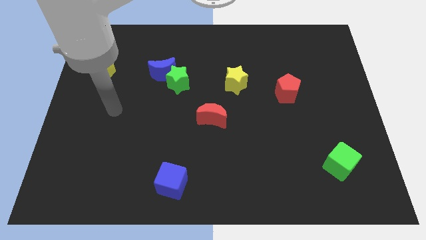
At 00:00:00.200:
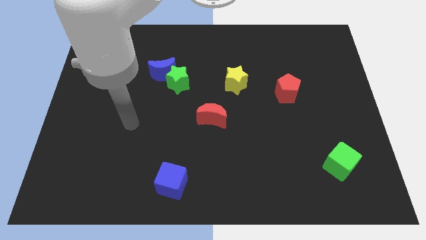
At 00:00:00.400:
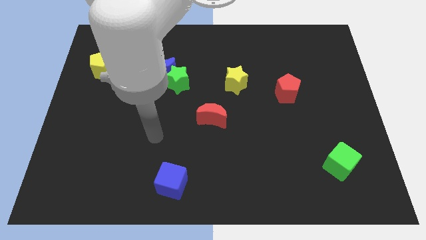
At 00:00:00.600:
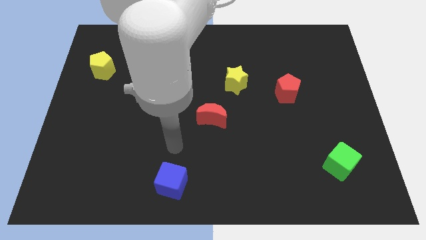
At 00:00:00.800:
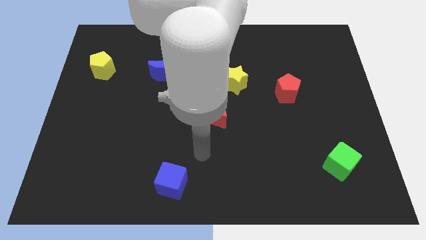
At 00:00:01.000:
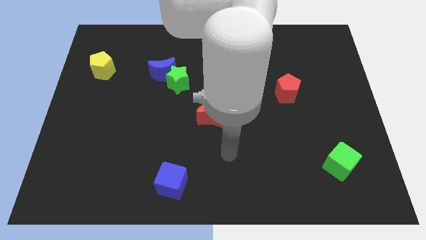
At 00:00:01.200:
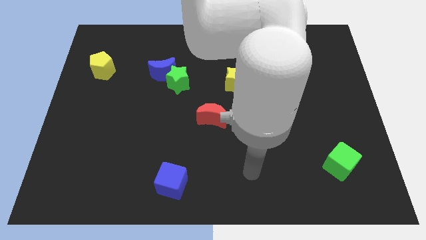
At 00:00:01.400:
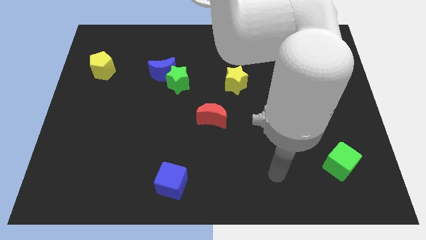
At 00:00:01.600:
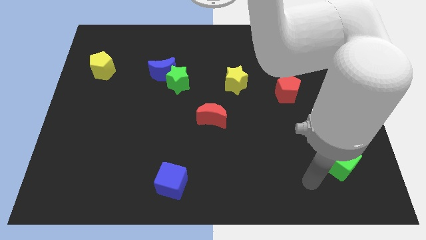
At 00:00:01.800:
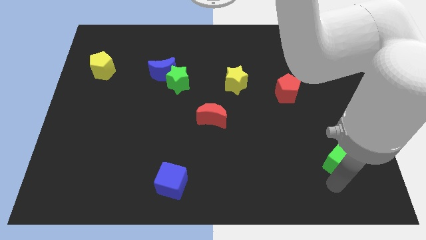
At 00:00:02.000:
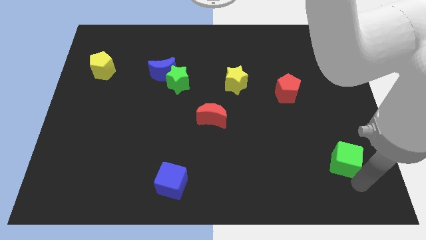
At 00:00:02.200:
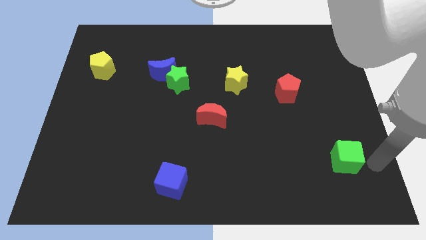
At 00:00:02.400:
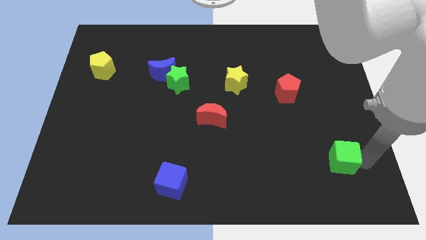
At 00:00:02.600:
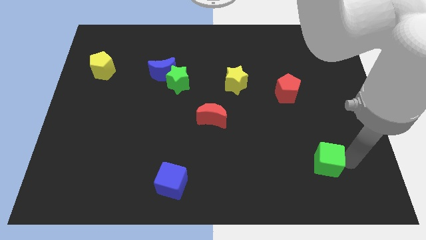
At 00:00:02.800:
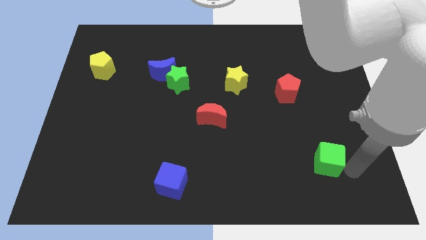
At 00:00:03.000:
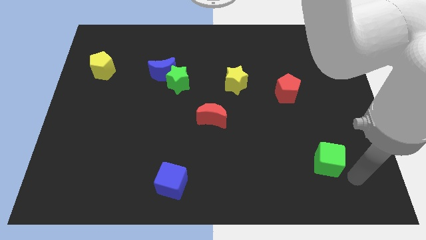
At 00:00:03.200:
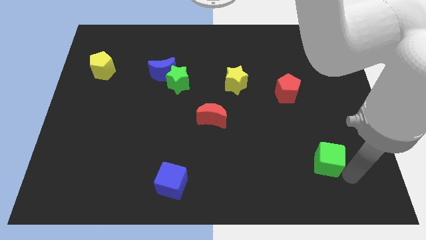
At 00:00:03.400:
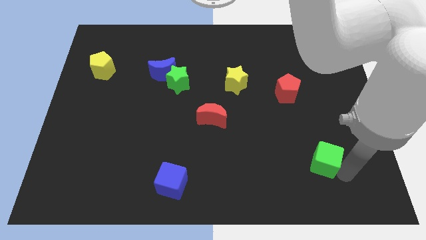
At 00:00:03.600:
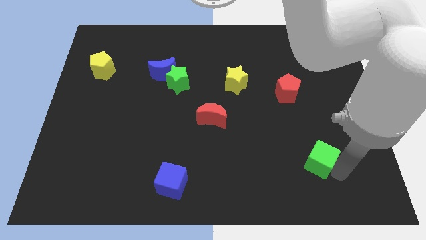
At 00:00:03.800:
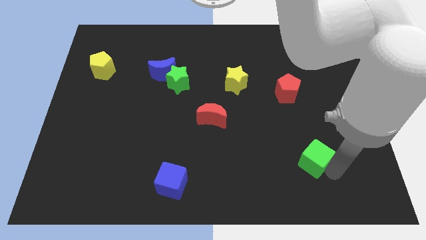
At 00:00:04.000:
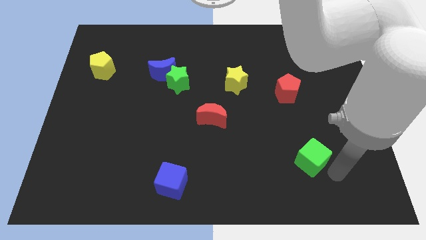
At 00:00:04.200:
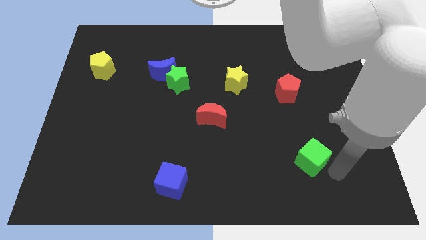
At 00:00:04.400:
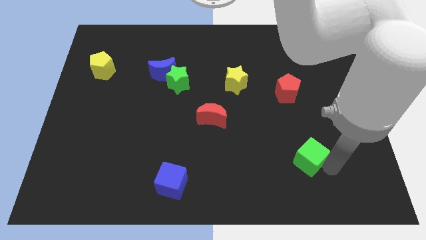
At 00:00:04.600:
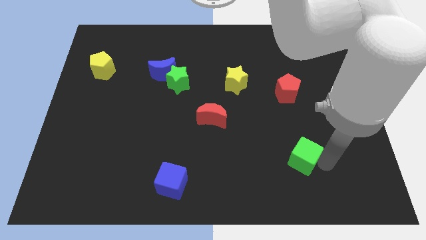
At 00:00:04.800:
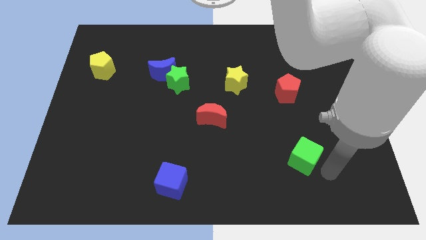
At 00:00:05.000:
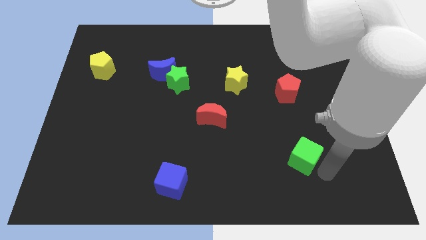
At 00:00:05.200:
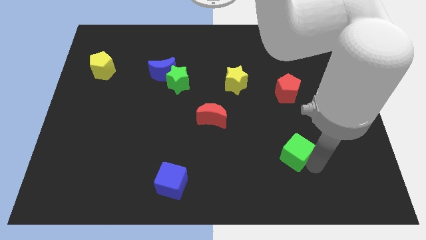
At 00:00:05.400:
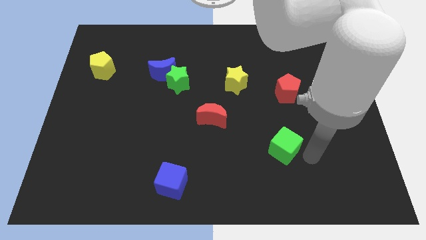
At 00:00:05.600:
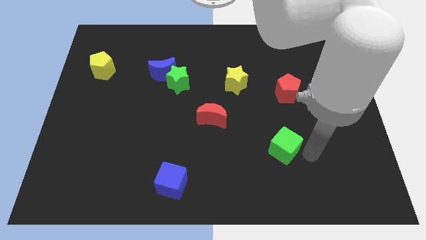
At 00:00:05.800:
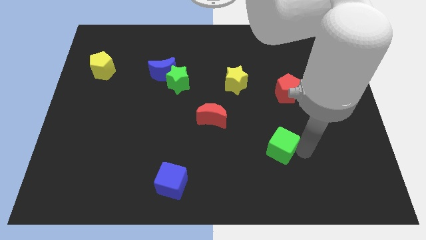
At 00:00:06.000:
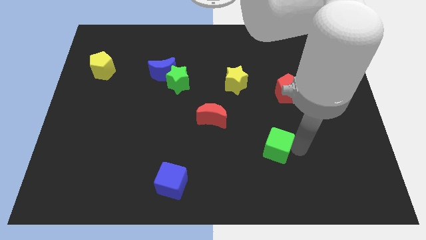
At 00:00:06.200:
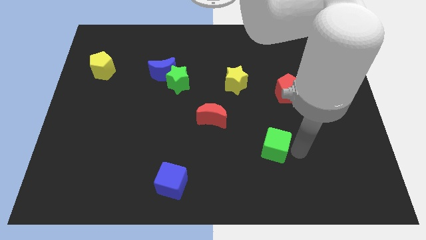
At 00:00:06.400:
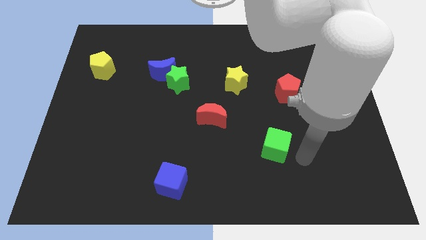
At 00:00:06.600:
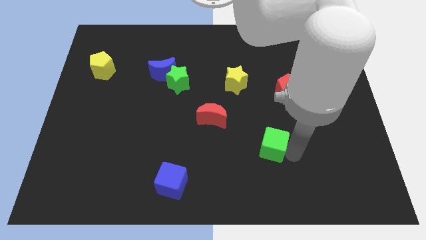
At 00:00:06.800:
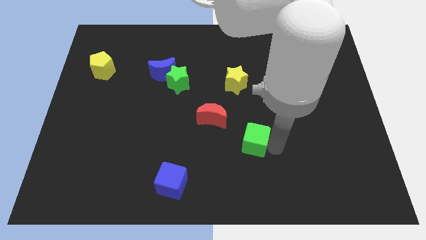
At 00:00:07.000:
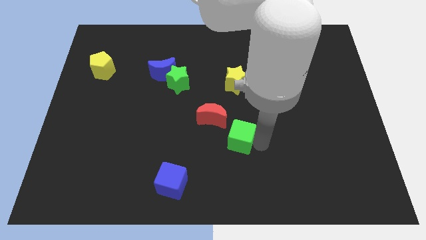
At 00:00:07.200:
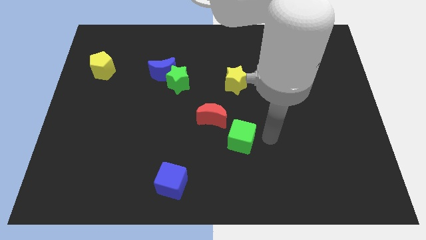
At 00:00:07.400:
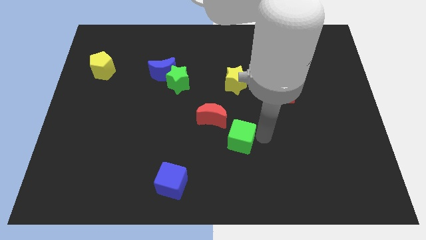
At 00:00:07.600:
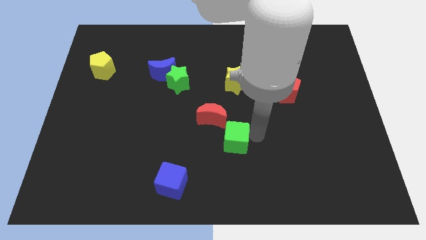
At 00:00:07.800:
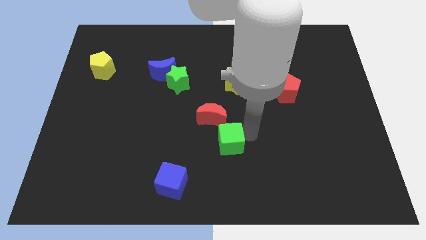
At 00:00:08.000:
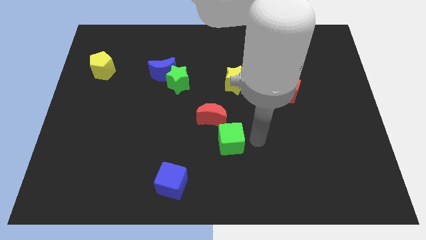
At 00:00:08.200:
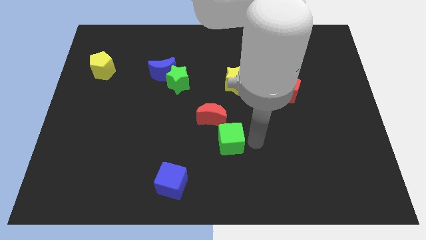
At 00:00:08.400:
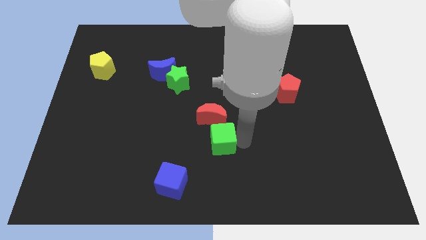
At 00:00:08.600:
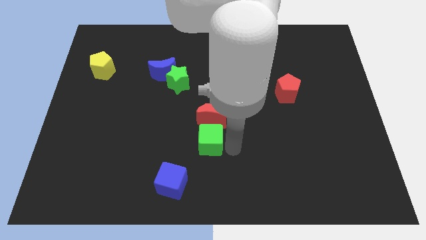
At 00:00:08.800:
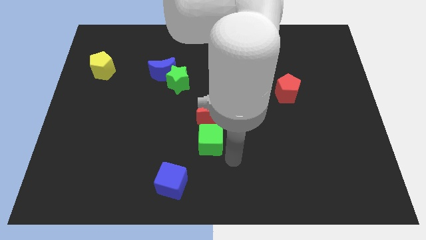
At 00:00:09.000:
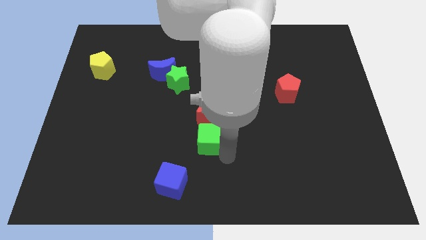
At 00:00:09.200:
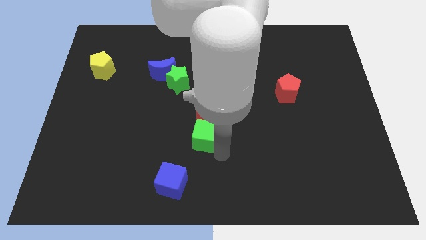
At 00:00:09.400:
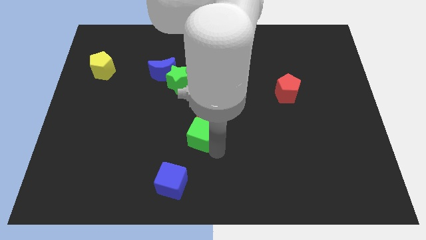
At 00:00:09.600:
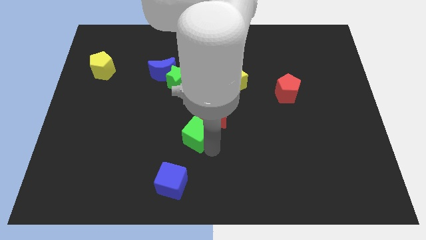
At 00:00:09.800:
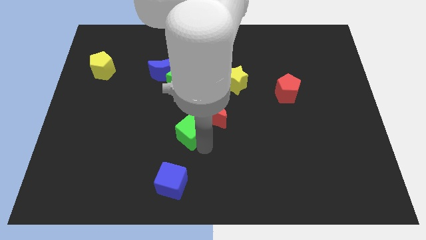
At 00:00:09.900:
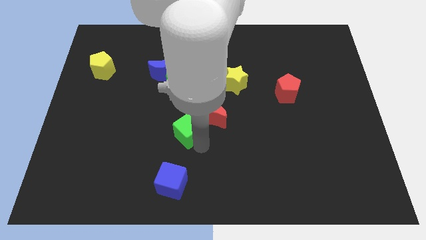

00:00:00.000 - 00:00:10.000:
slide the green cube to the bottom side of the green star
